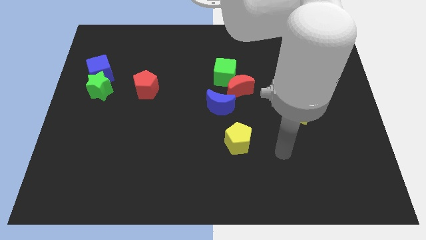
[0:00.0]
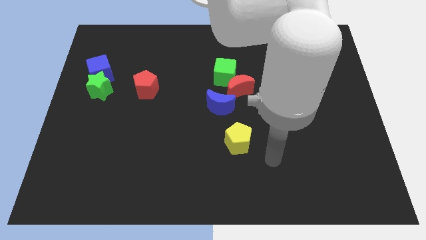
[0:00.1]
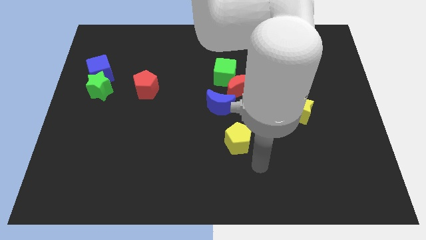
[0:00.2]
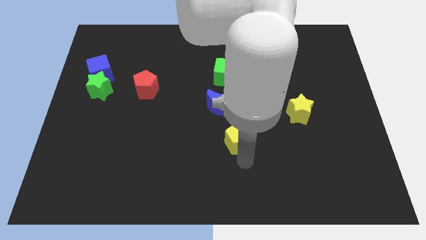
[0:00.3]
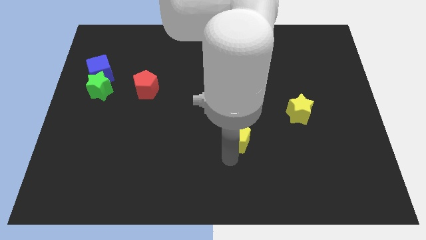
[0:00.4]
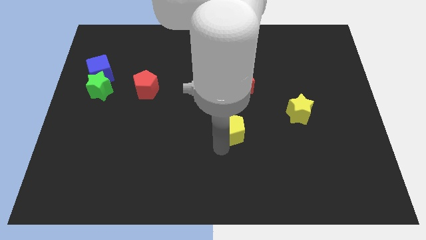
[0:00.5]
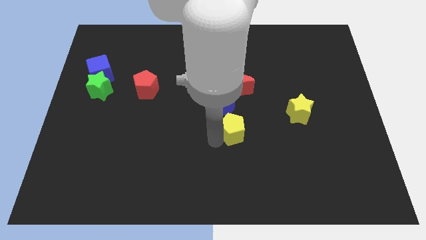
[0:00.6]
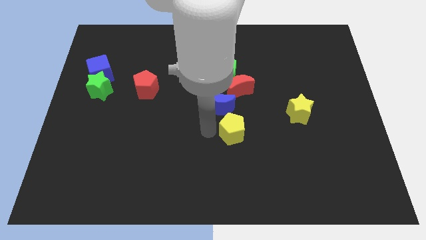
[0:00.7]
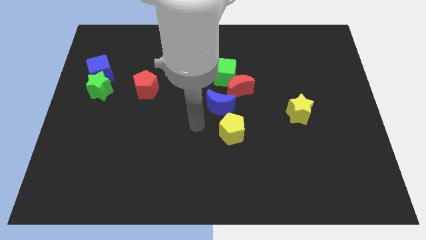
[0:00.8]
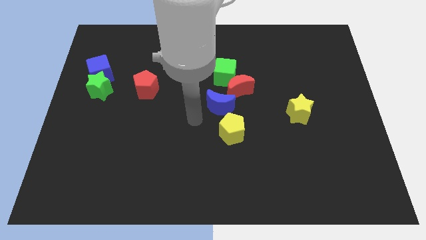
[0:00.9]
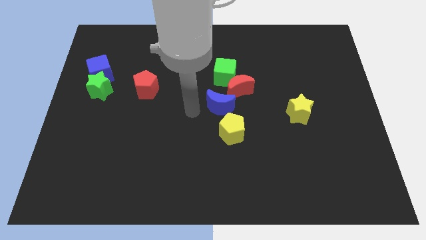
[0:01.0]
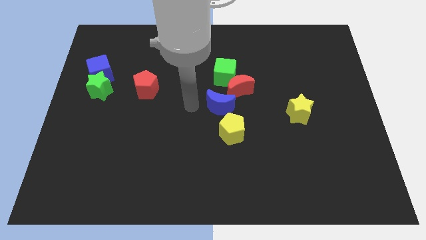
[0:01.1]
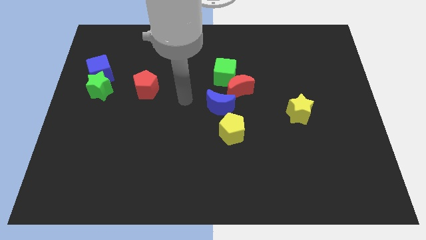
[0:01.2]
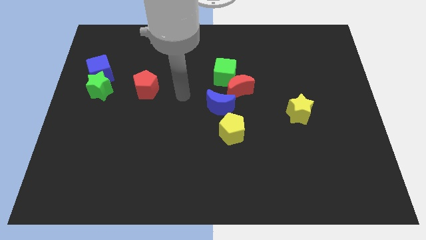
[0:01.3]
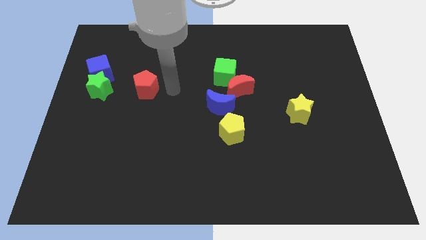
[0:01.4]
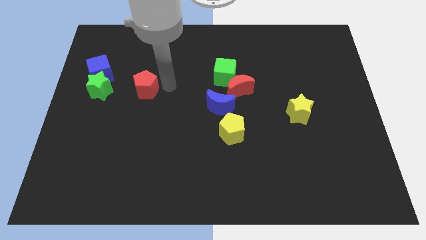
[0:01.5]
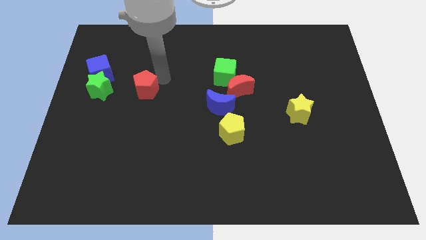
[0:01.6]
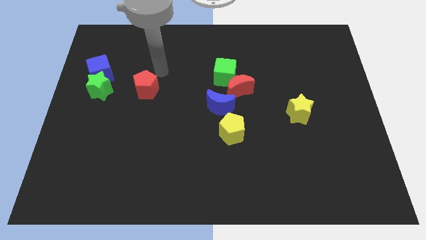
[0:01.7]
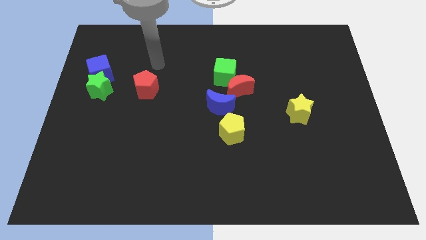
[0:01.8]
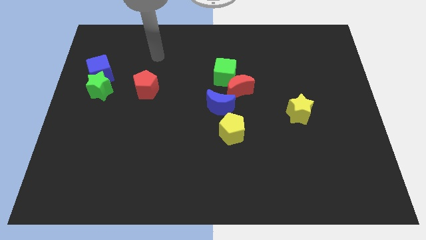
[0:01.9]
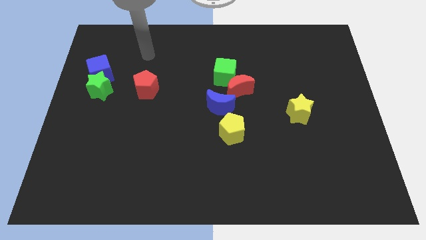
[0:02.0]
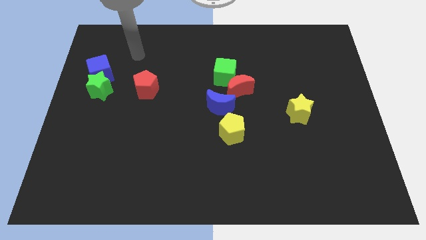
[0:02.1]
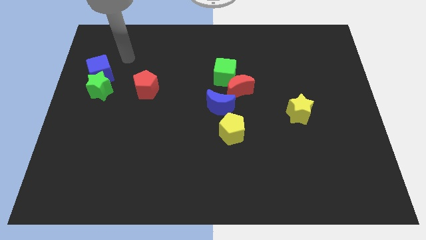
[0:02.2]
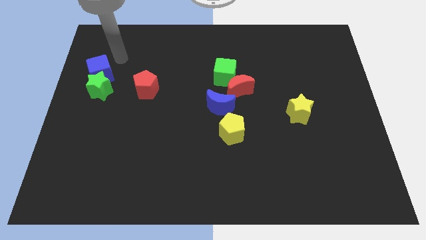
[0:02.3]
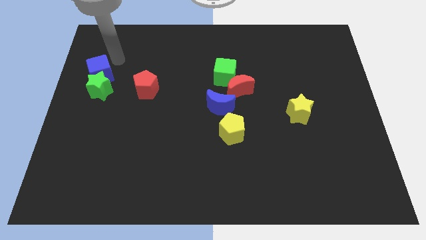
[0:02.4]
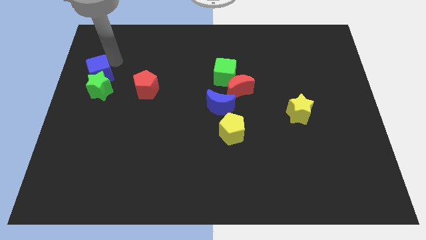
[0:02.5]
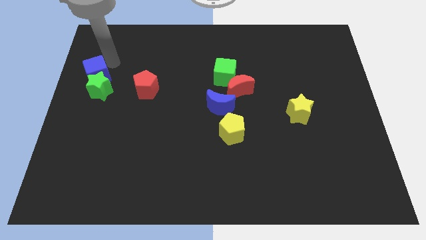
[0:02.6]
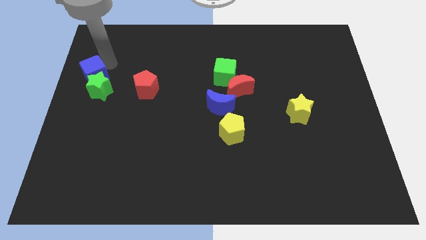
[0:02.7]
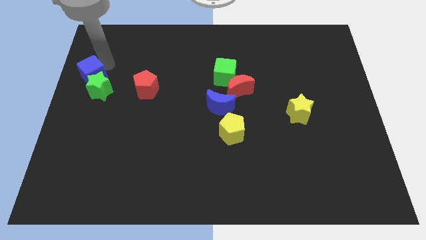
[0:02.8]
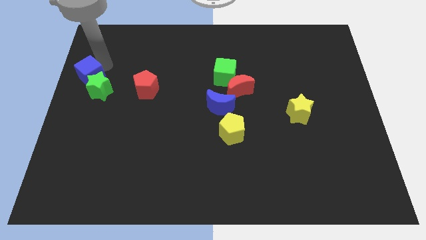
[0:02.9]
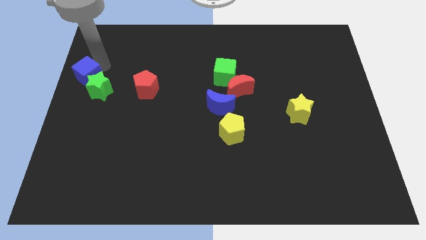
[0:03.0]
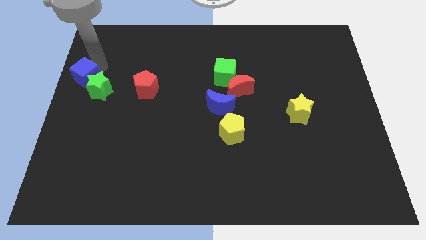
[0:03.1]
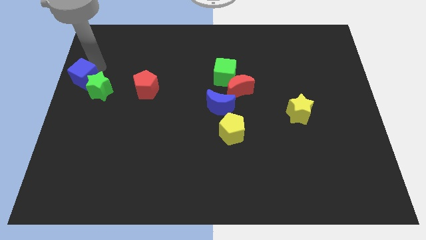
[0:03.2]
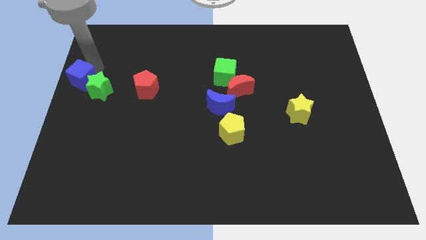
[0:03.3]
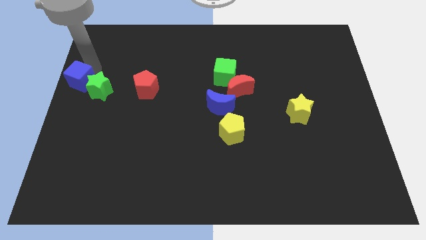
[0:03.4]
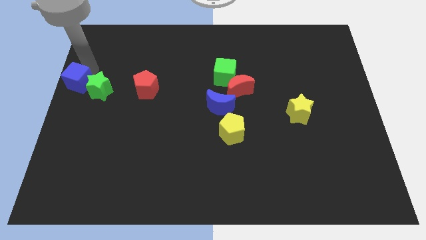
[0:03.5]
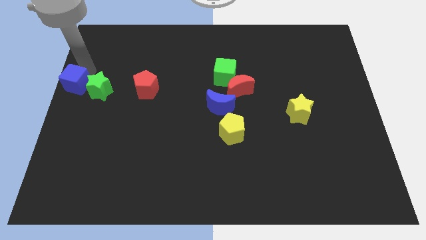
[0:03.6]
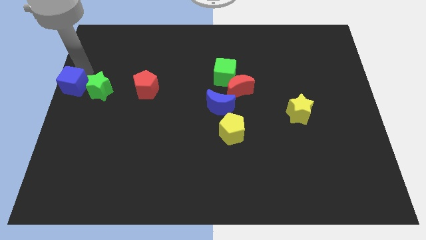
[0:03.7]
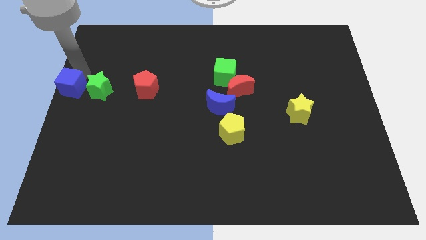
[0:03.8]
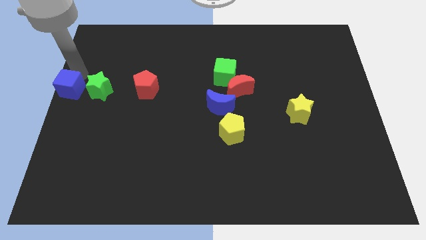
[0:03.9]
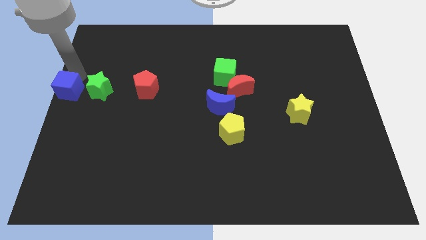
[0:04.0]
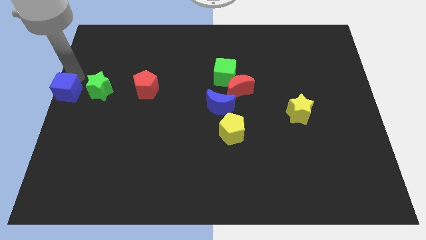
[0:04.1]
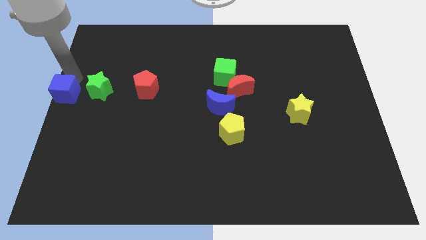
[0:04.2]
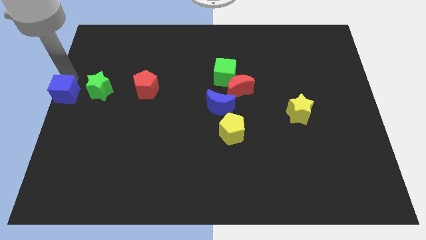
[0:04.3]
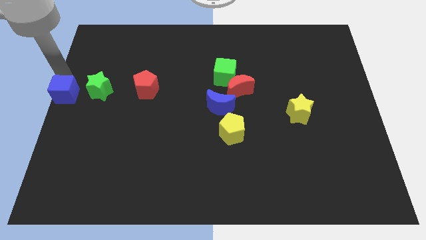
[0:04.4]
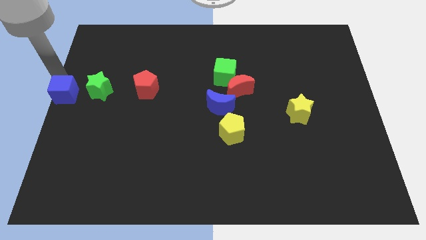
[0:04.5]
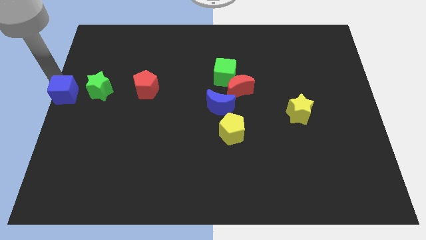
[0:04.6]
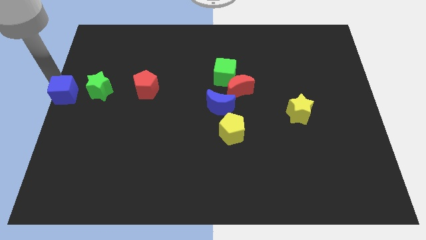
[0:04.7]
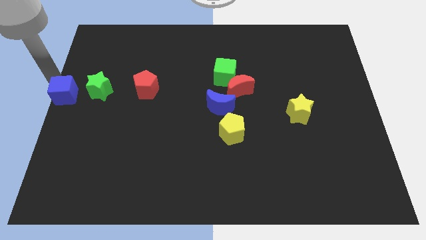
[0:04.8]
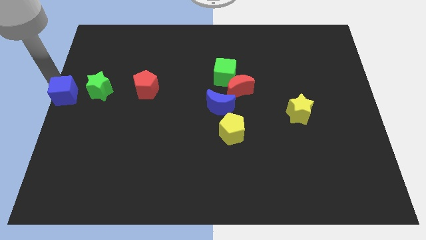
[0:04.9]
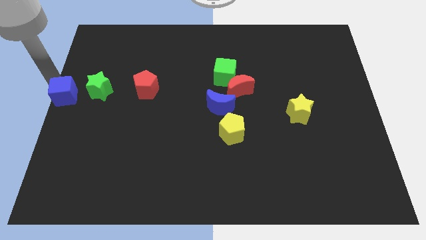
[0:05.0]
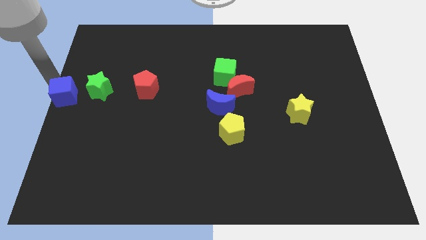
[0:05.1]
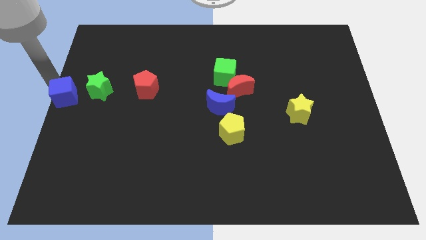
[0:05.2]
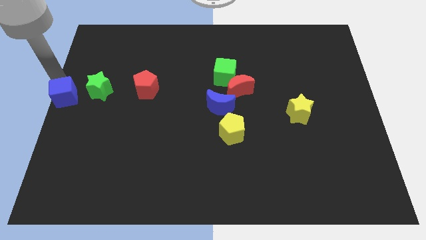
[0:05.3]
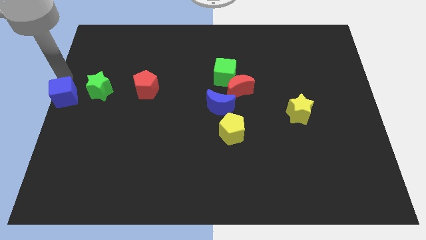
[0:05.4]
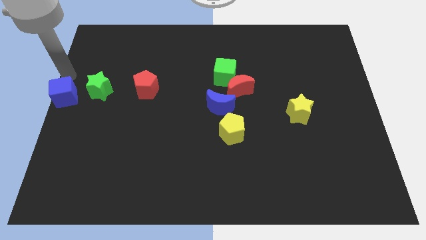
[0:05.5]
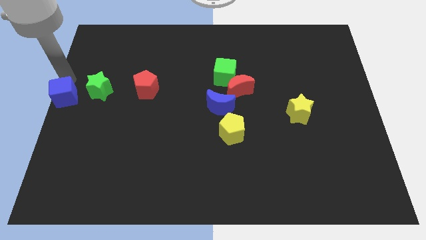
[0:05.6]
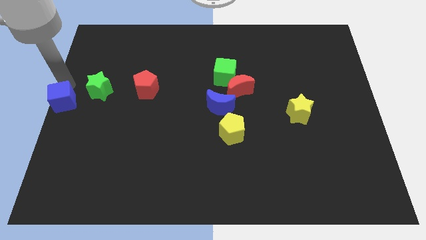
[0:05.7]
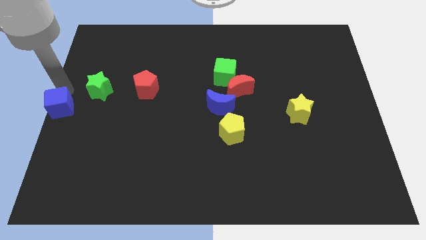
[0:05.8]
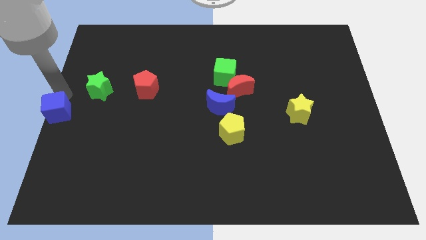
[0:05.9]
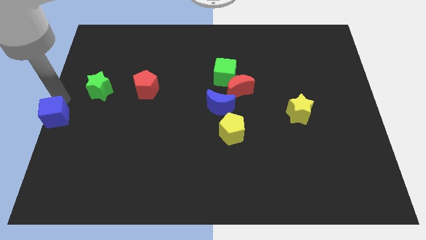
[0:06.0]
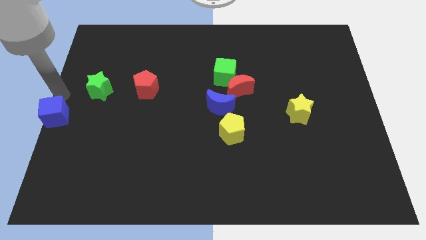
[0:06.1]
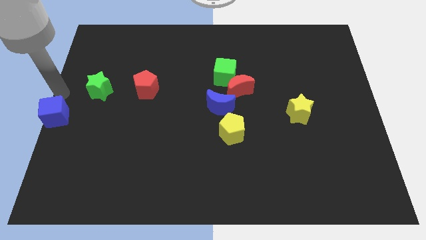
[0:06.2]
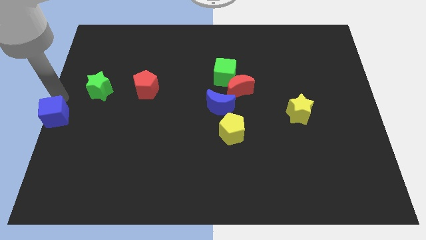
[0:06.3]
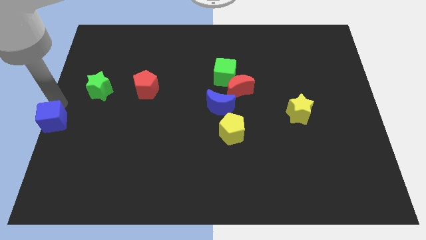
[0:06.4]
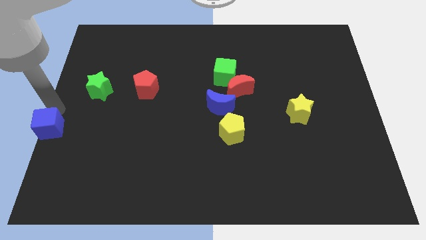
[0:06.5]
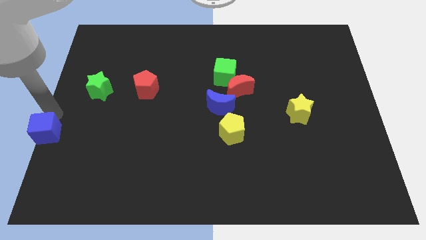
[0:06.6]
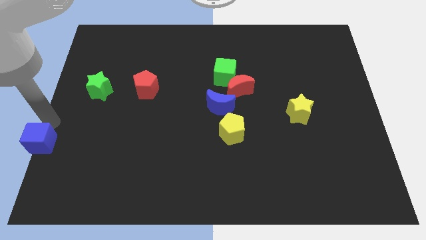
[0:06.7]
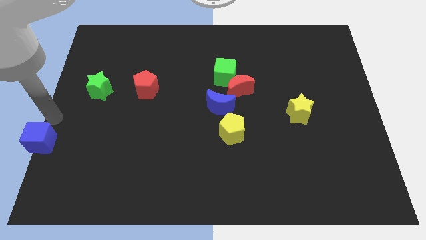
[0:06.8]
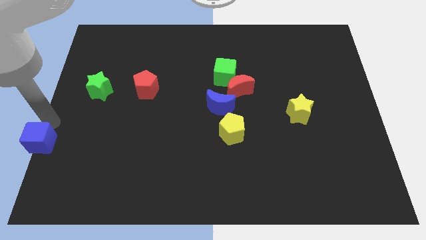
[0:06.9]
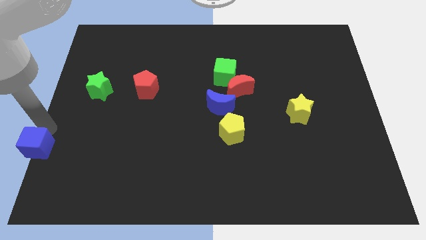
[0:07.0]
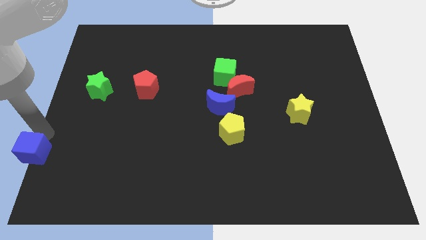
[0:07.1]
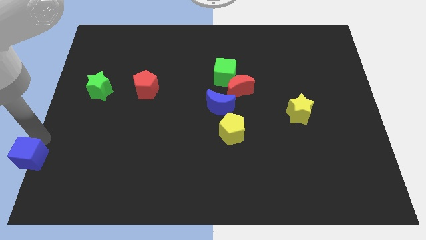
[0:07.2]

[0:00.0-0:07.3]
put the blue cube to the bottom left
